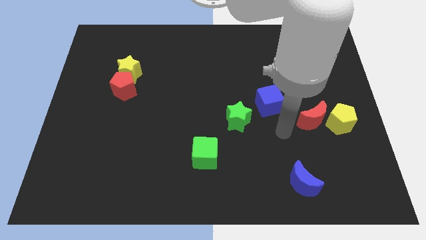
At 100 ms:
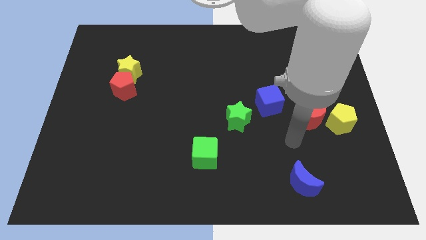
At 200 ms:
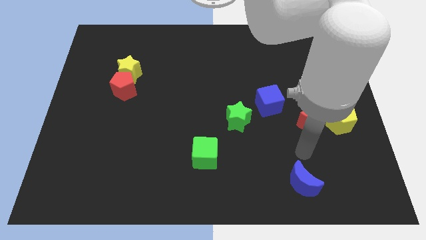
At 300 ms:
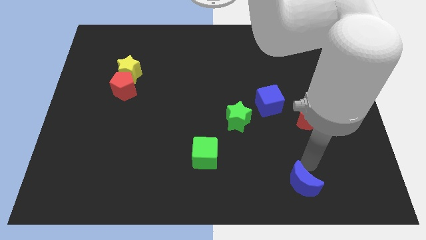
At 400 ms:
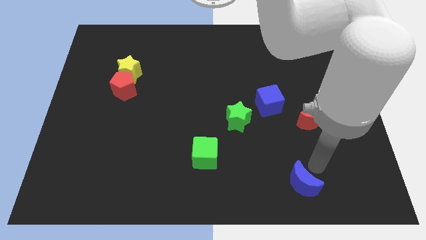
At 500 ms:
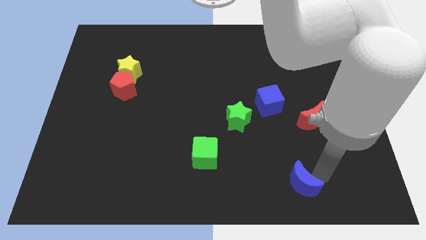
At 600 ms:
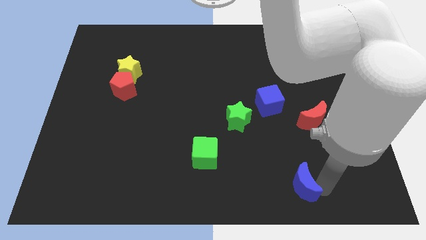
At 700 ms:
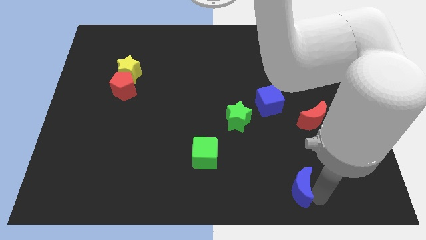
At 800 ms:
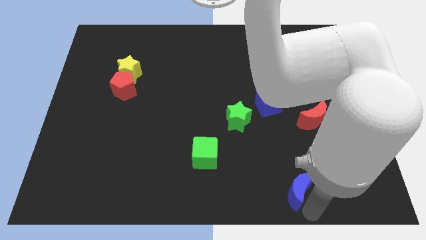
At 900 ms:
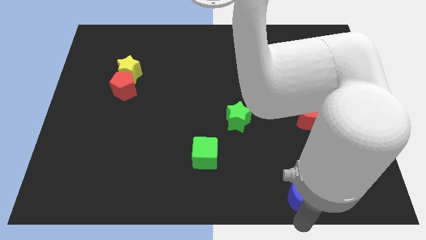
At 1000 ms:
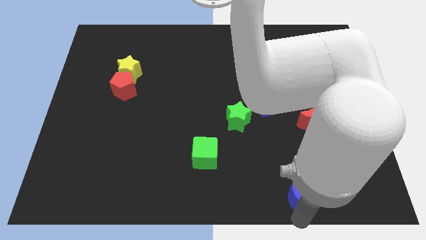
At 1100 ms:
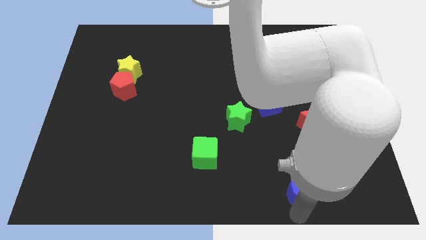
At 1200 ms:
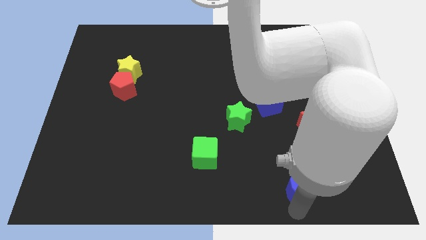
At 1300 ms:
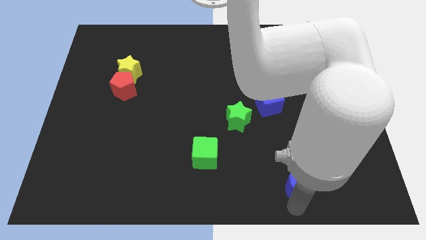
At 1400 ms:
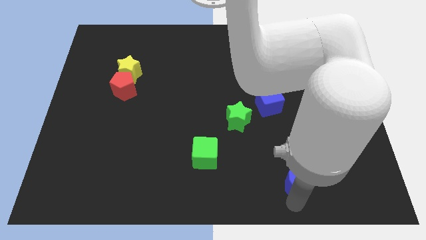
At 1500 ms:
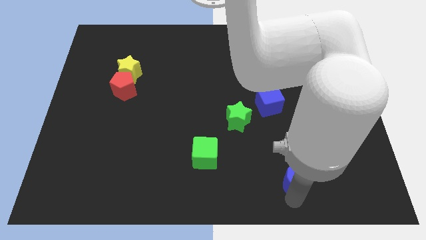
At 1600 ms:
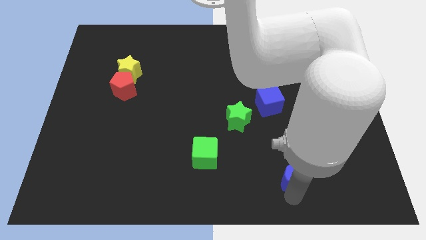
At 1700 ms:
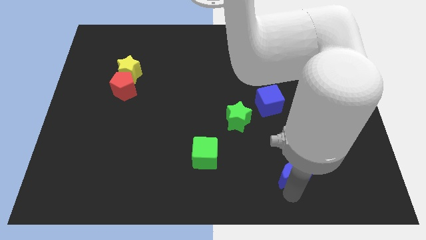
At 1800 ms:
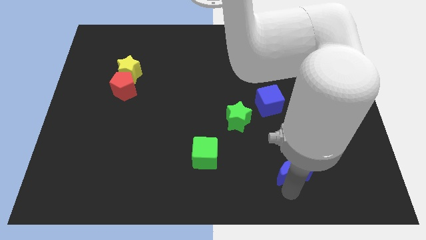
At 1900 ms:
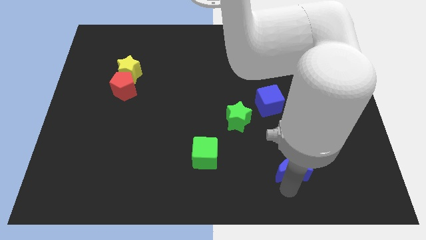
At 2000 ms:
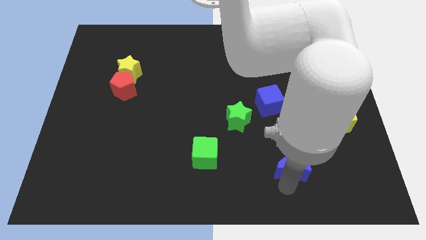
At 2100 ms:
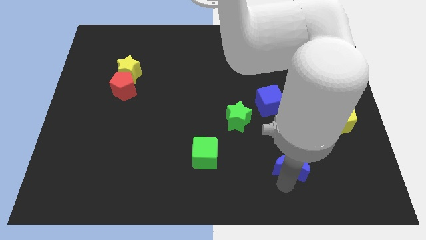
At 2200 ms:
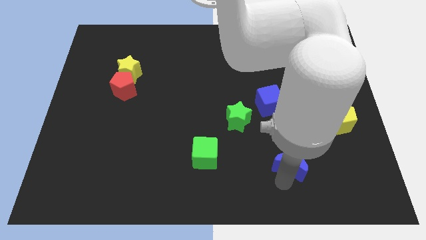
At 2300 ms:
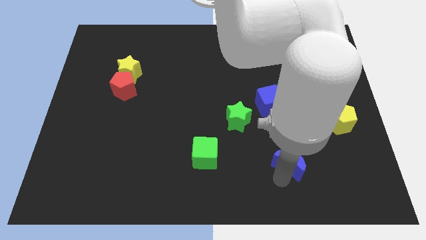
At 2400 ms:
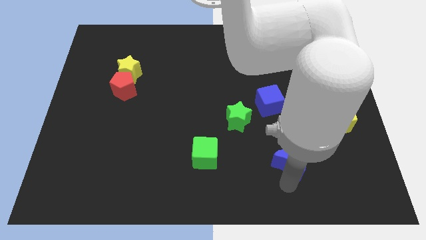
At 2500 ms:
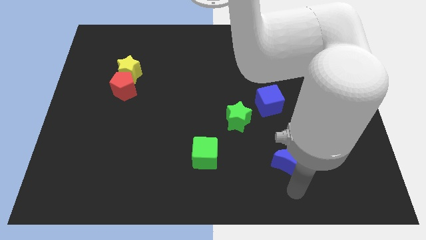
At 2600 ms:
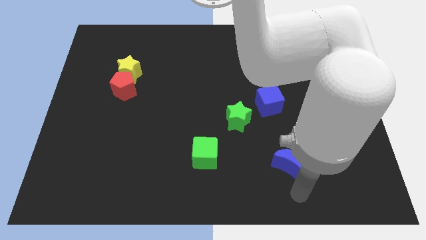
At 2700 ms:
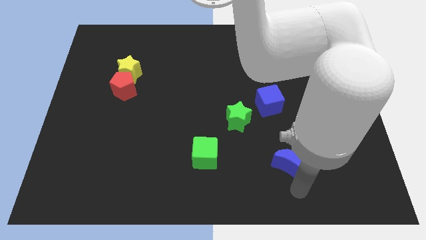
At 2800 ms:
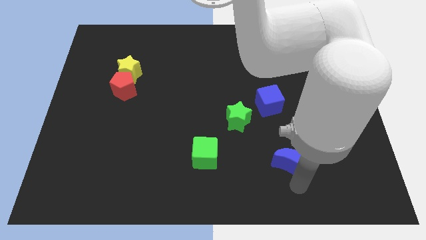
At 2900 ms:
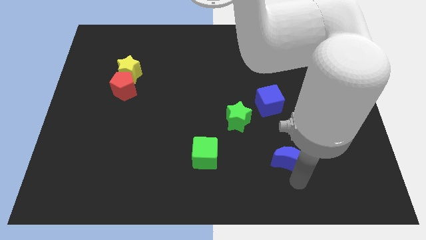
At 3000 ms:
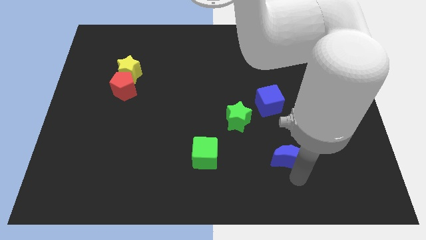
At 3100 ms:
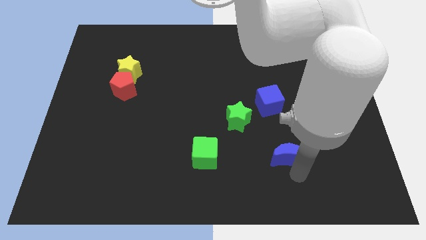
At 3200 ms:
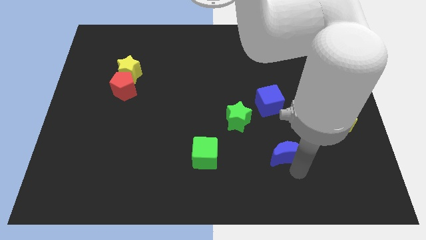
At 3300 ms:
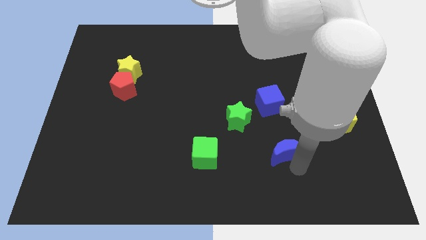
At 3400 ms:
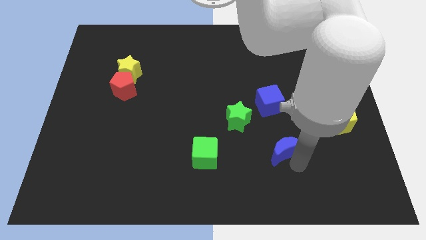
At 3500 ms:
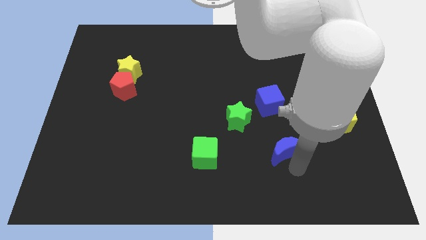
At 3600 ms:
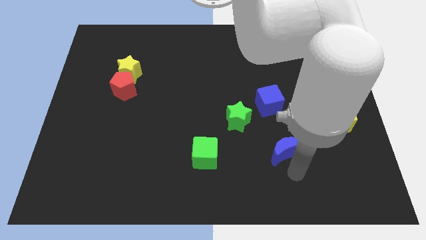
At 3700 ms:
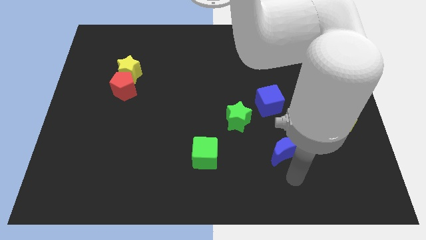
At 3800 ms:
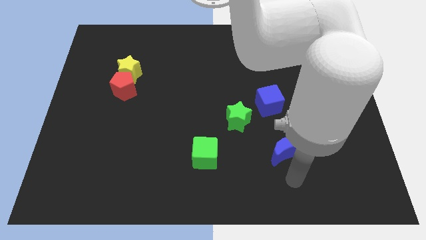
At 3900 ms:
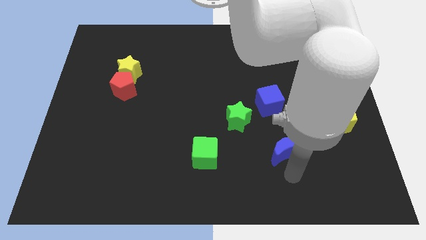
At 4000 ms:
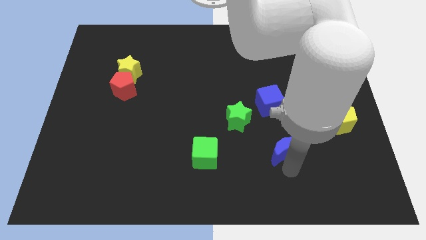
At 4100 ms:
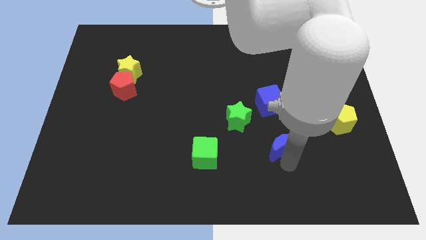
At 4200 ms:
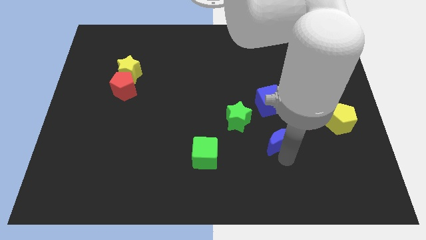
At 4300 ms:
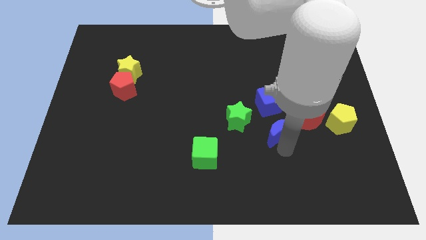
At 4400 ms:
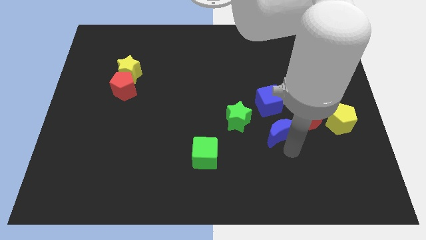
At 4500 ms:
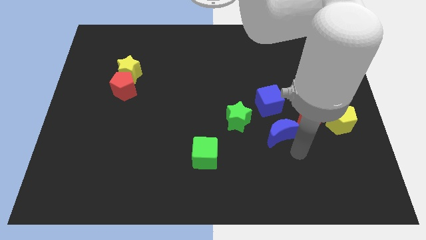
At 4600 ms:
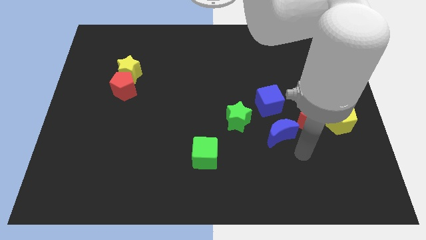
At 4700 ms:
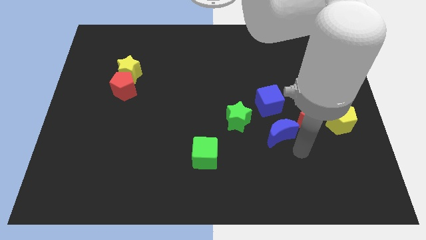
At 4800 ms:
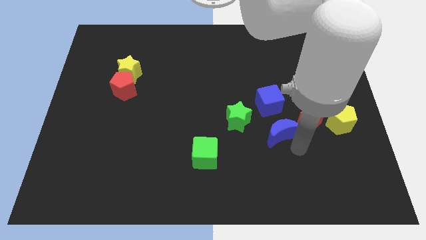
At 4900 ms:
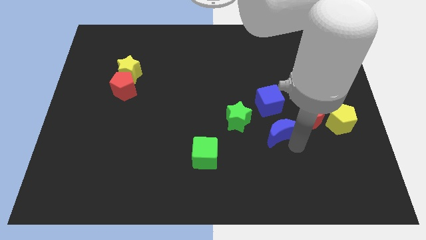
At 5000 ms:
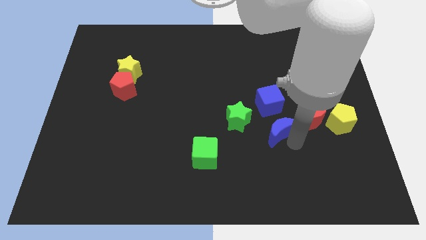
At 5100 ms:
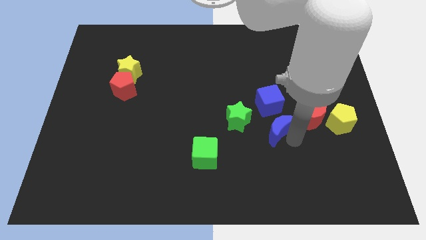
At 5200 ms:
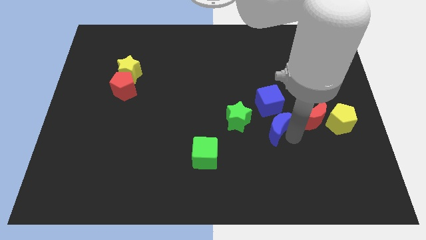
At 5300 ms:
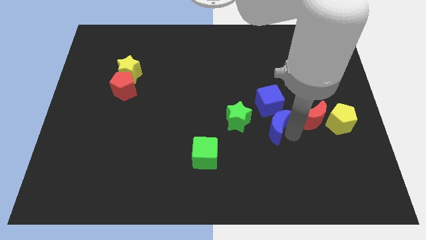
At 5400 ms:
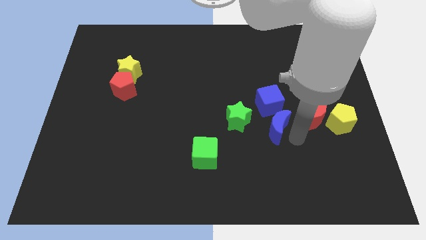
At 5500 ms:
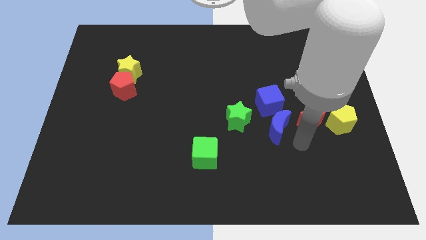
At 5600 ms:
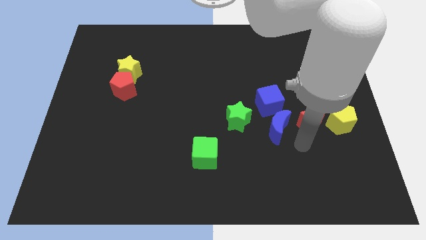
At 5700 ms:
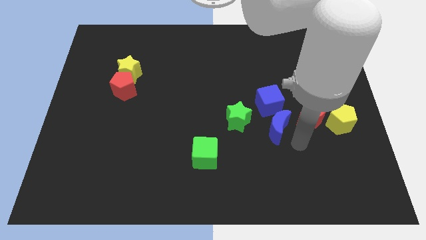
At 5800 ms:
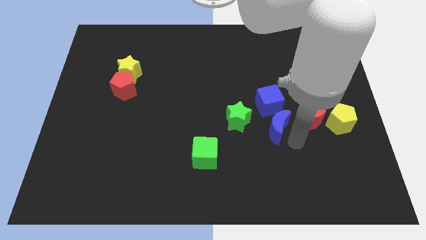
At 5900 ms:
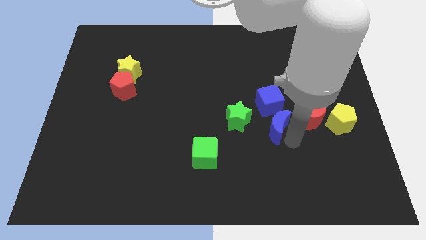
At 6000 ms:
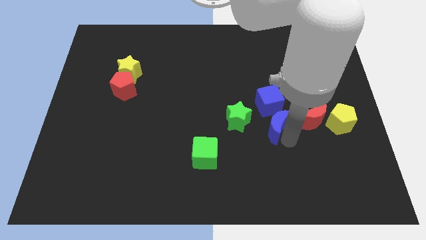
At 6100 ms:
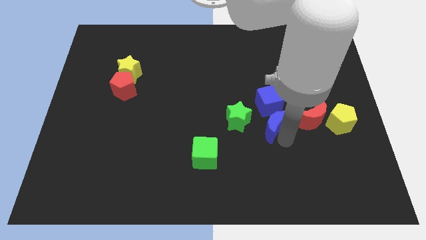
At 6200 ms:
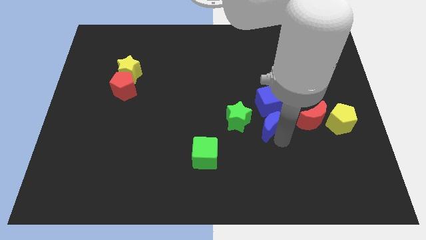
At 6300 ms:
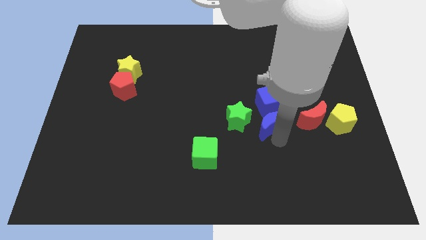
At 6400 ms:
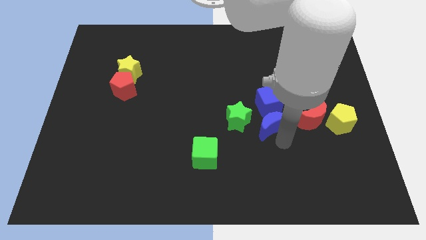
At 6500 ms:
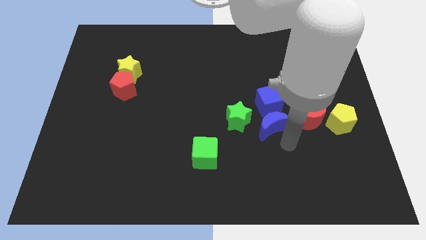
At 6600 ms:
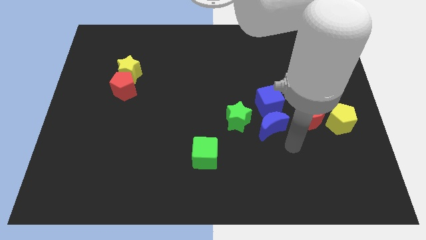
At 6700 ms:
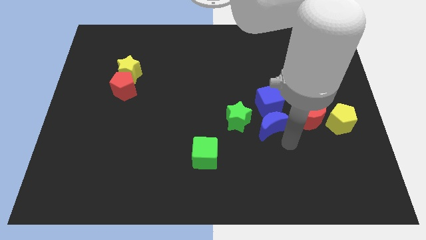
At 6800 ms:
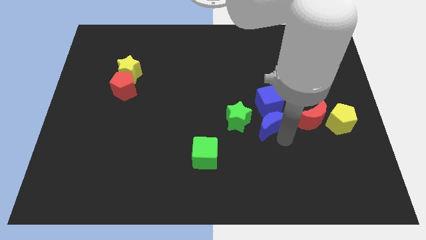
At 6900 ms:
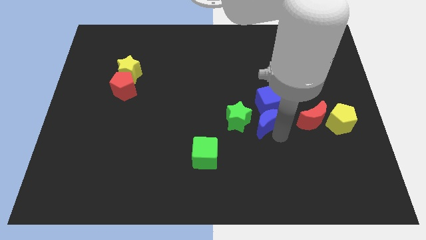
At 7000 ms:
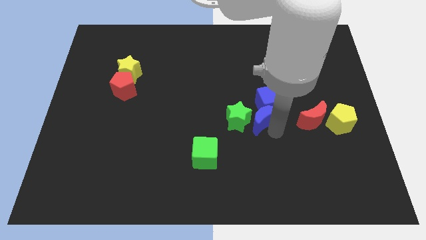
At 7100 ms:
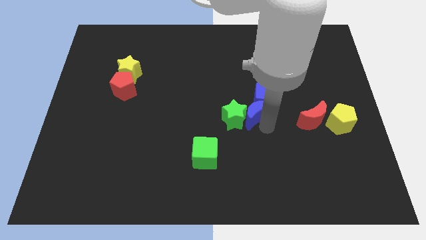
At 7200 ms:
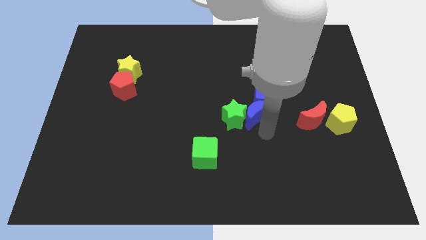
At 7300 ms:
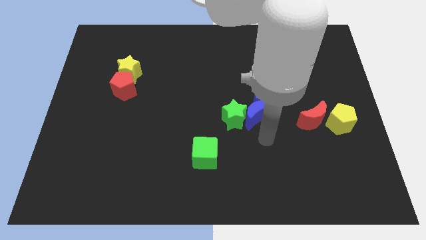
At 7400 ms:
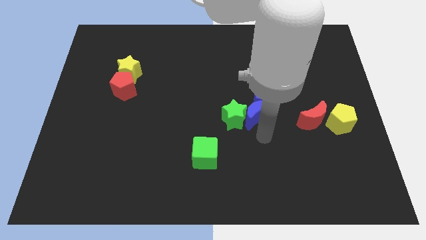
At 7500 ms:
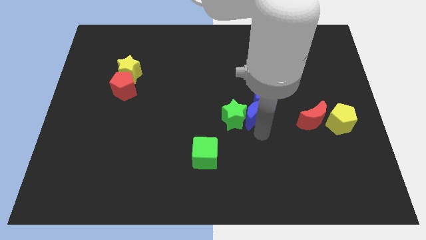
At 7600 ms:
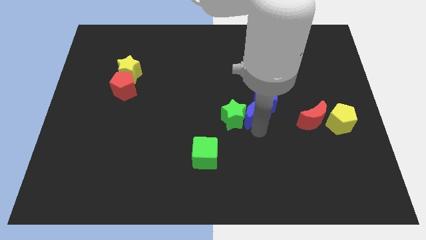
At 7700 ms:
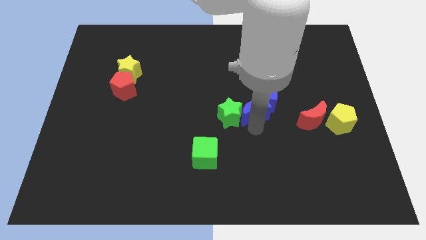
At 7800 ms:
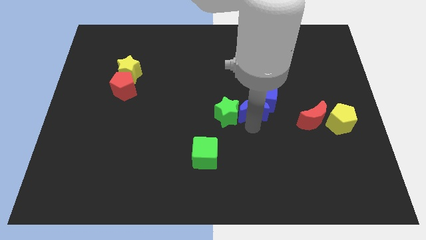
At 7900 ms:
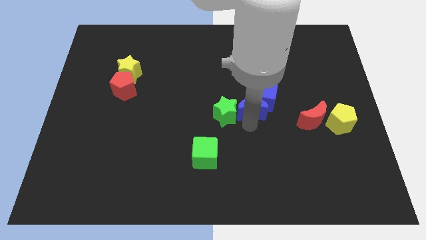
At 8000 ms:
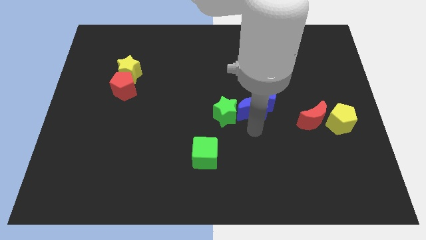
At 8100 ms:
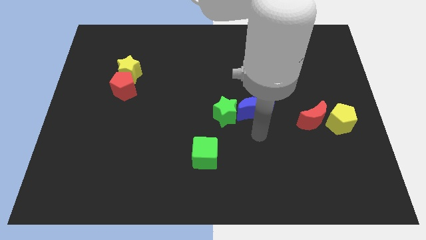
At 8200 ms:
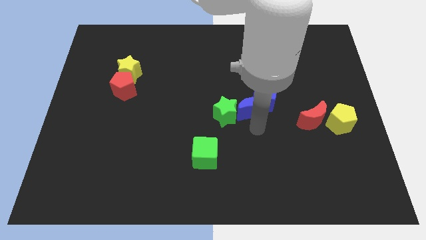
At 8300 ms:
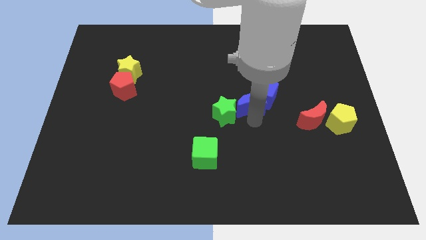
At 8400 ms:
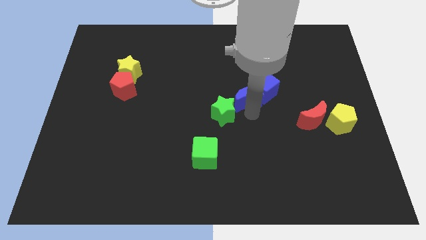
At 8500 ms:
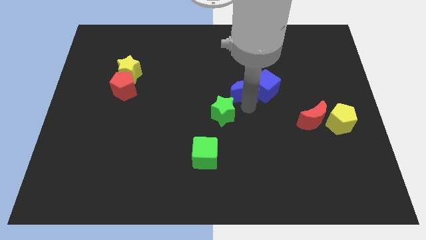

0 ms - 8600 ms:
move the blue moon to the top left of the blue cube
